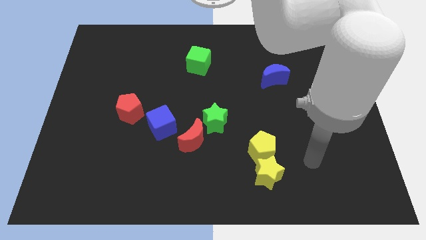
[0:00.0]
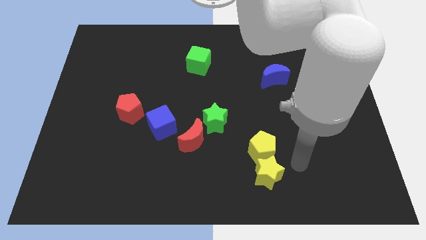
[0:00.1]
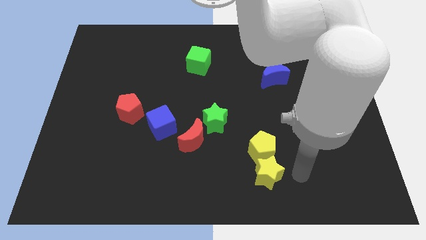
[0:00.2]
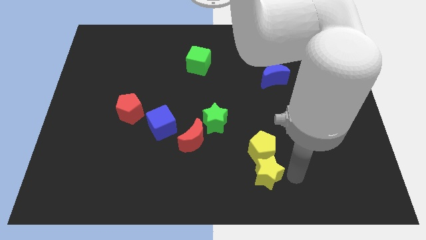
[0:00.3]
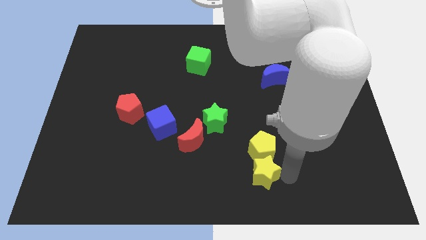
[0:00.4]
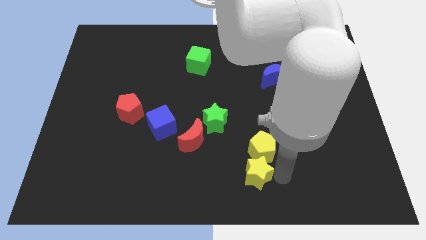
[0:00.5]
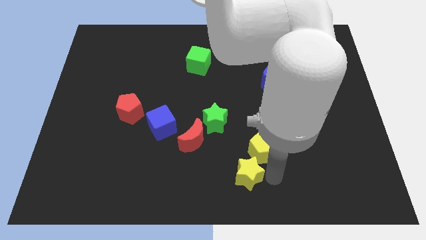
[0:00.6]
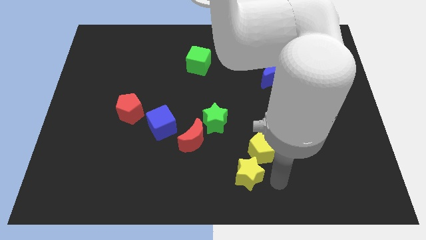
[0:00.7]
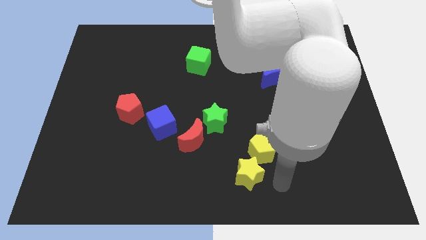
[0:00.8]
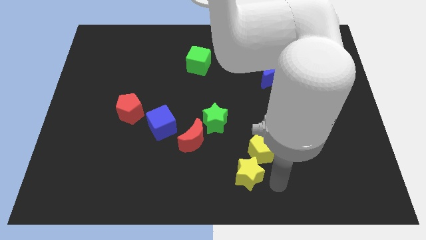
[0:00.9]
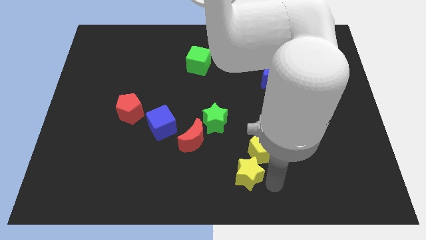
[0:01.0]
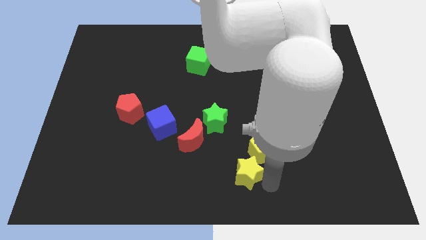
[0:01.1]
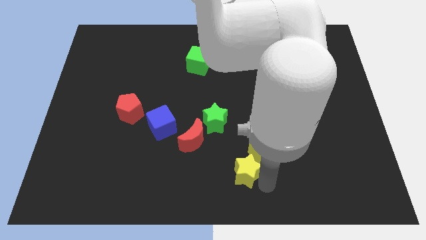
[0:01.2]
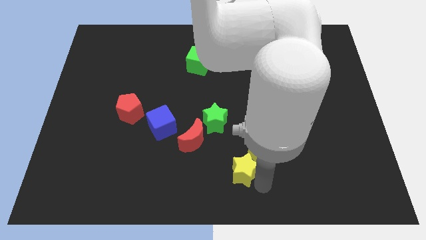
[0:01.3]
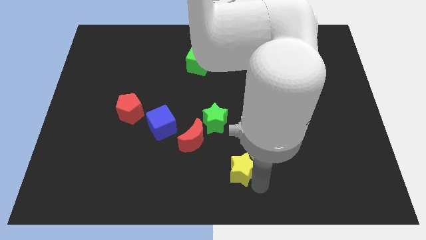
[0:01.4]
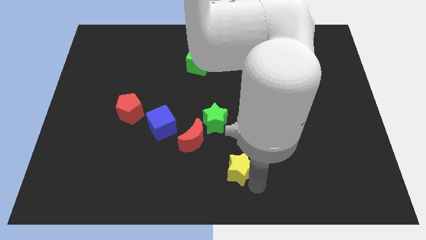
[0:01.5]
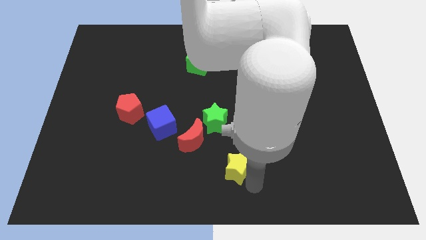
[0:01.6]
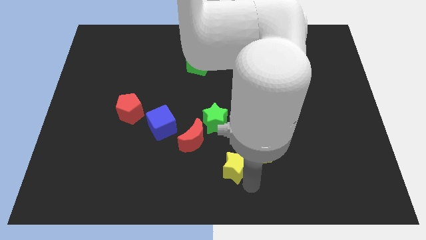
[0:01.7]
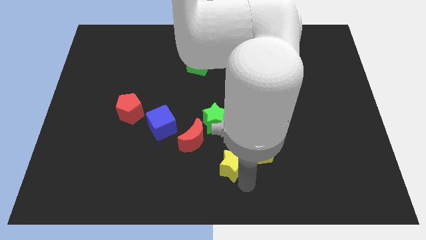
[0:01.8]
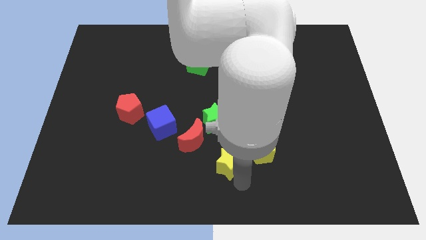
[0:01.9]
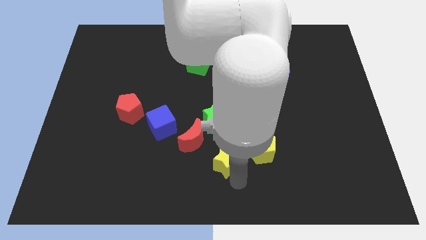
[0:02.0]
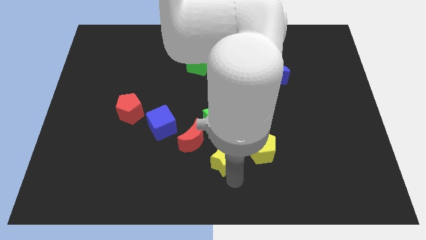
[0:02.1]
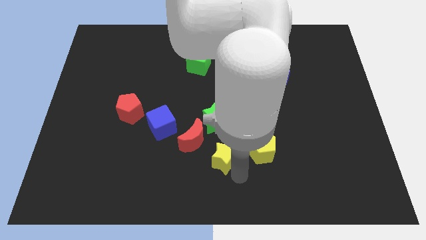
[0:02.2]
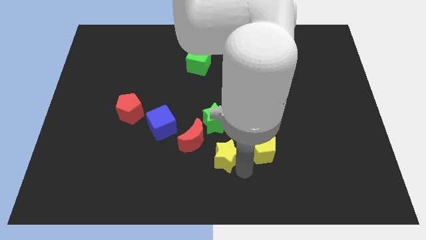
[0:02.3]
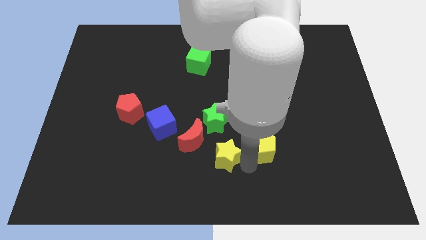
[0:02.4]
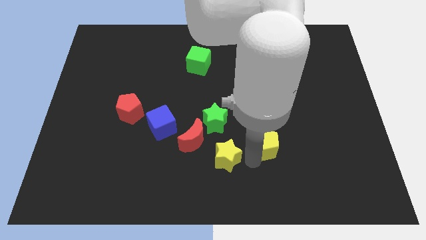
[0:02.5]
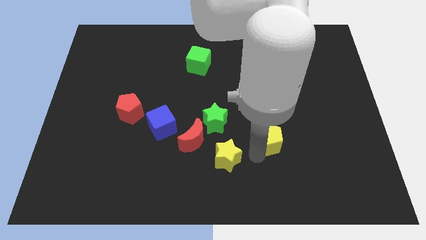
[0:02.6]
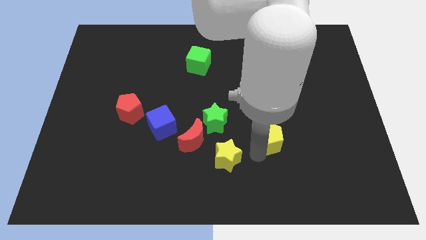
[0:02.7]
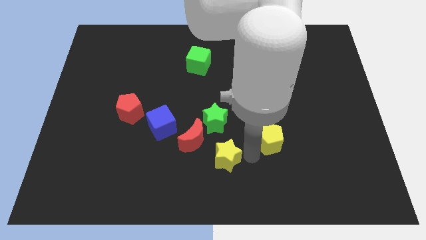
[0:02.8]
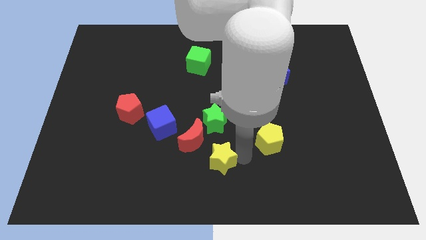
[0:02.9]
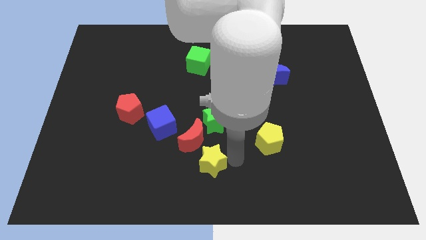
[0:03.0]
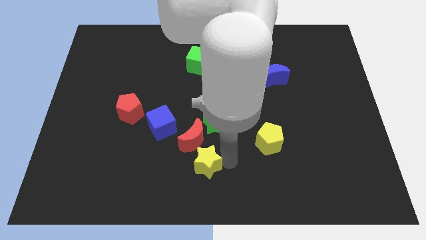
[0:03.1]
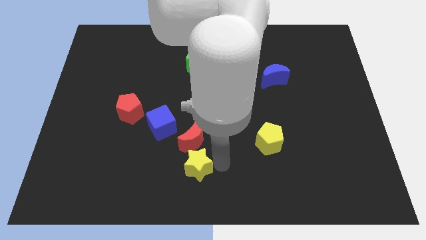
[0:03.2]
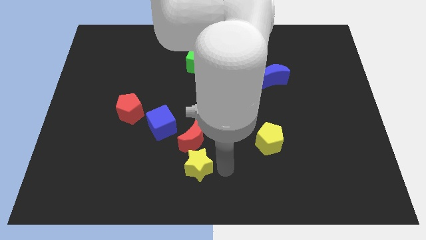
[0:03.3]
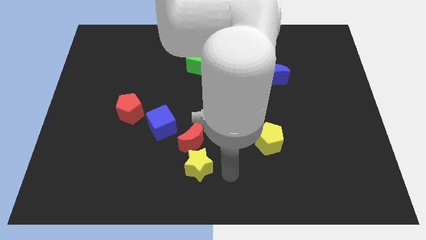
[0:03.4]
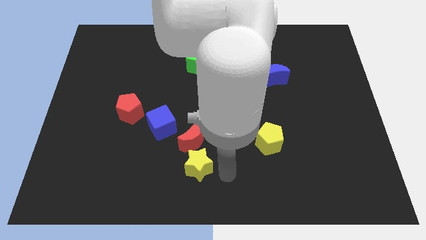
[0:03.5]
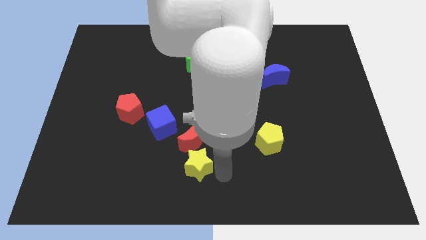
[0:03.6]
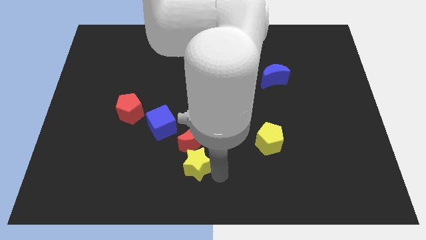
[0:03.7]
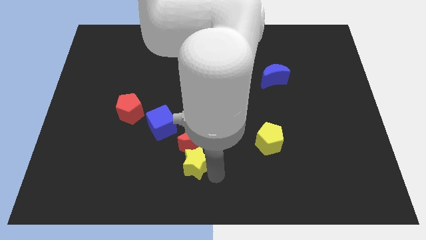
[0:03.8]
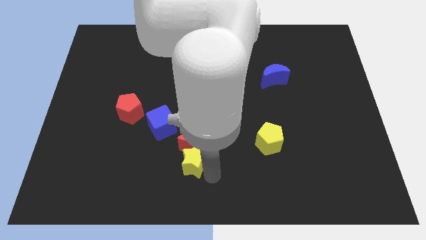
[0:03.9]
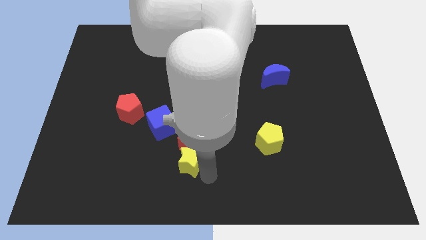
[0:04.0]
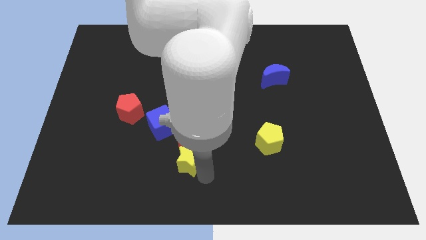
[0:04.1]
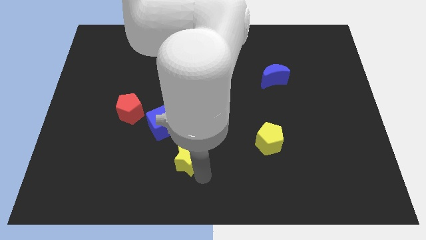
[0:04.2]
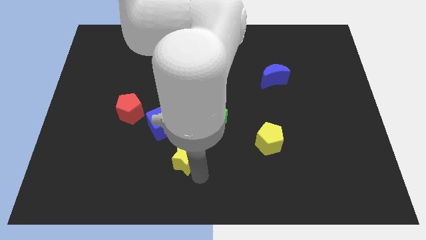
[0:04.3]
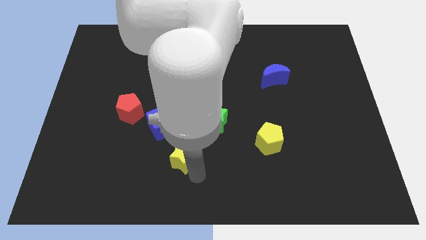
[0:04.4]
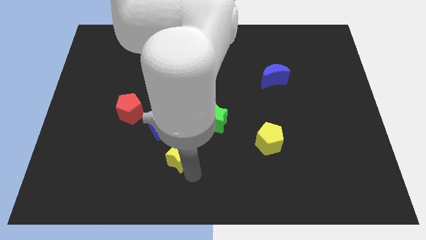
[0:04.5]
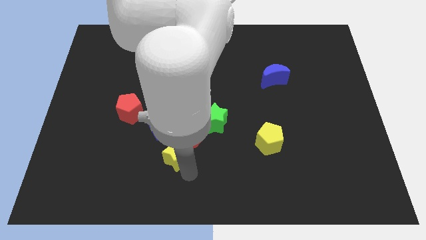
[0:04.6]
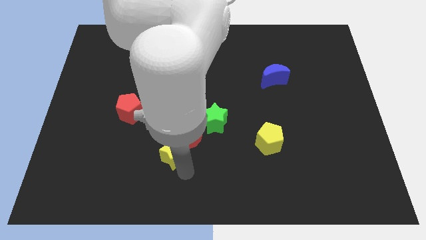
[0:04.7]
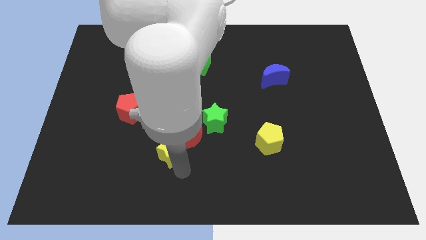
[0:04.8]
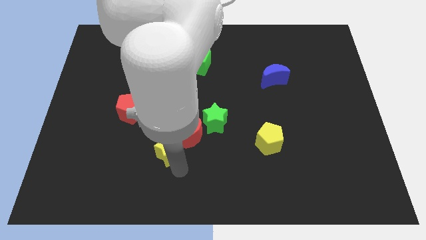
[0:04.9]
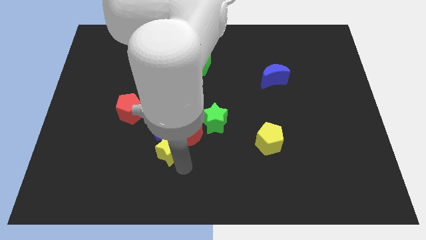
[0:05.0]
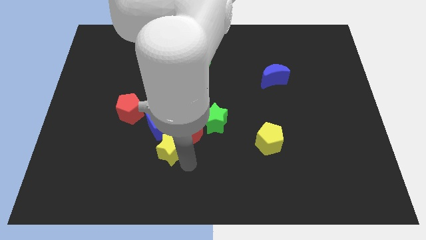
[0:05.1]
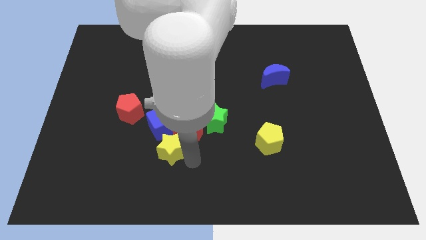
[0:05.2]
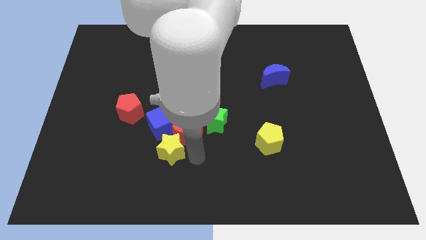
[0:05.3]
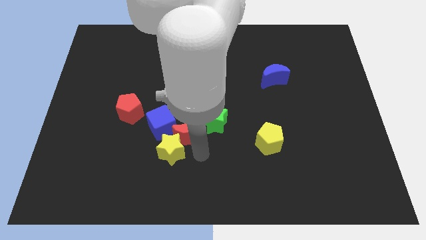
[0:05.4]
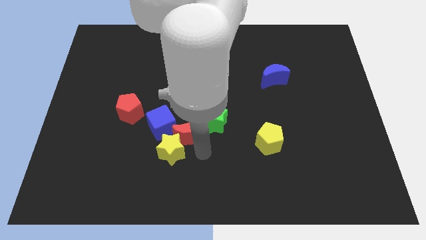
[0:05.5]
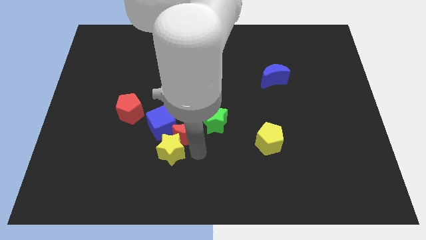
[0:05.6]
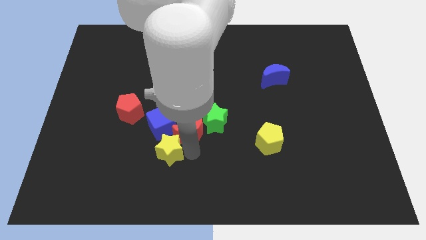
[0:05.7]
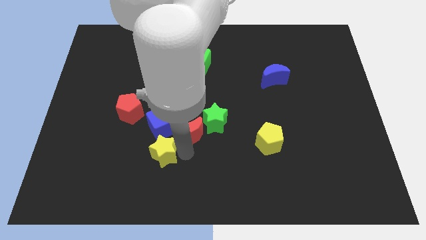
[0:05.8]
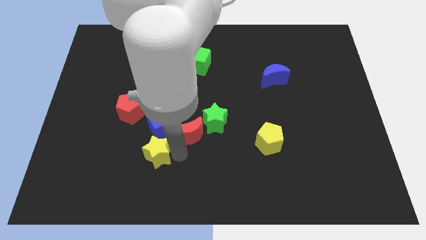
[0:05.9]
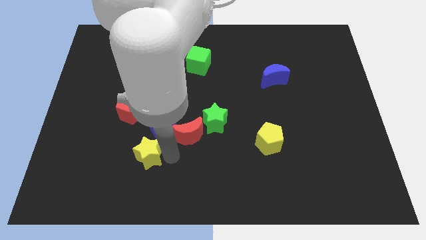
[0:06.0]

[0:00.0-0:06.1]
move the yellow star to the bottom left of the blue cube

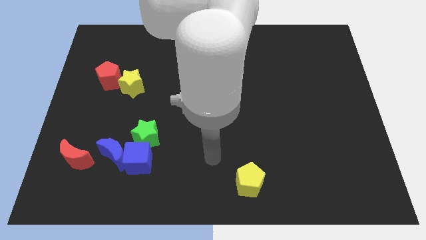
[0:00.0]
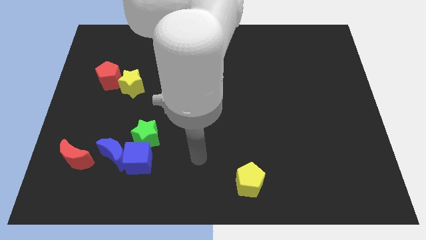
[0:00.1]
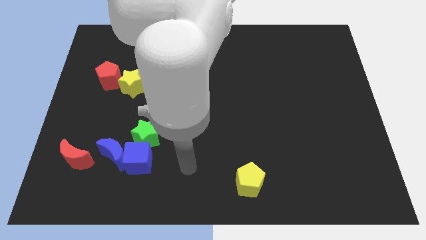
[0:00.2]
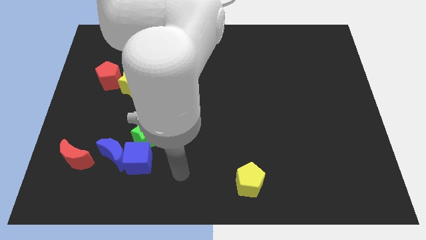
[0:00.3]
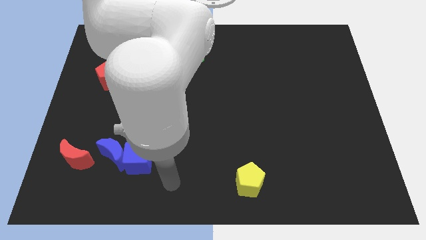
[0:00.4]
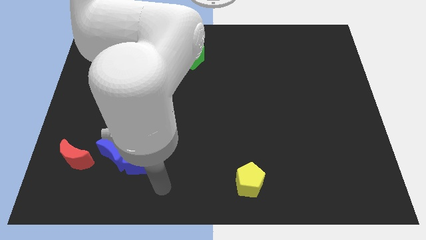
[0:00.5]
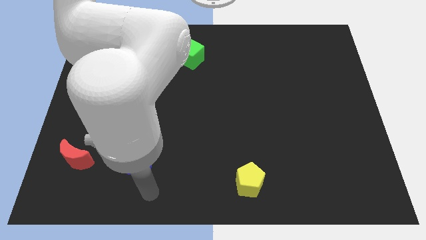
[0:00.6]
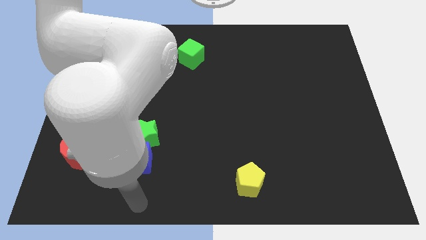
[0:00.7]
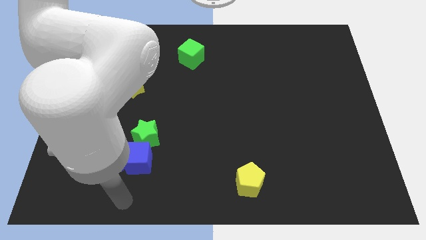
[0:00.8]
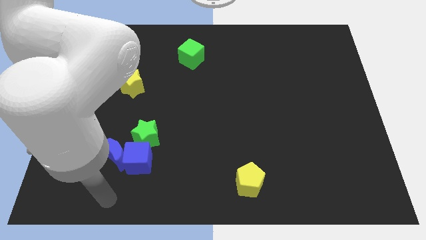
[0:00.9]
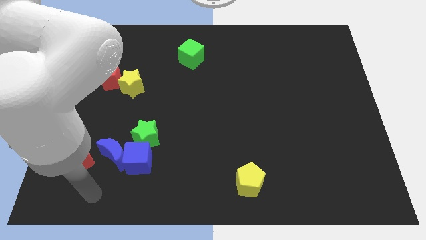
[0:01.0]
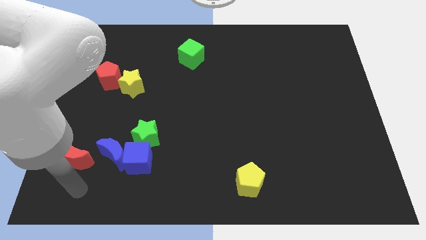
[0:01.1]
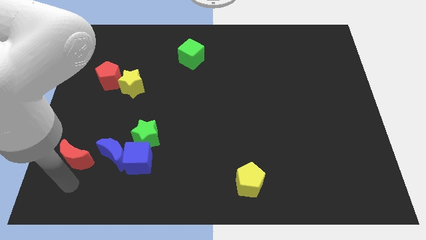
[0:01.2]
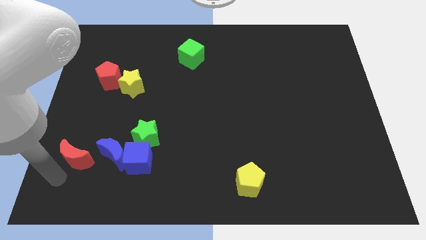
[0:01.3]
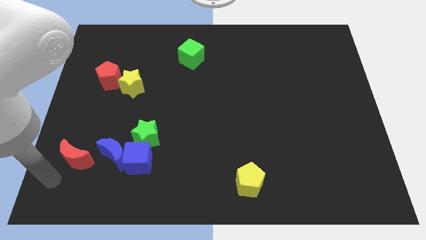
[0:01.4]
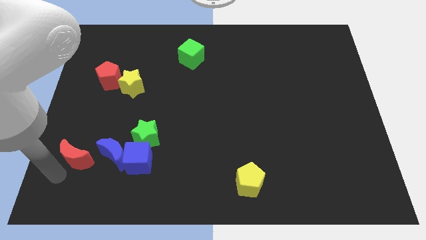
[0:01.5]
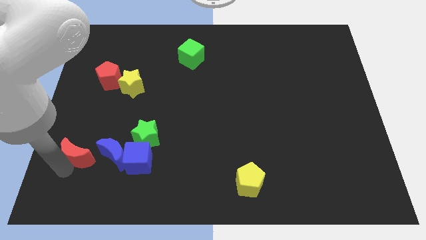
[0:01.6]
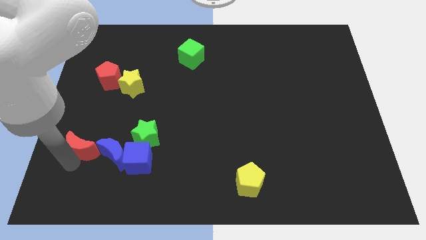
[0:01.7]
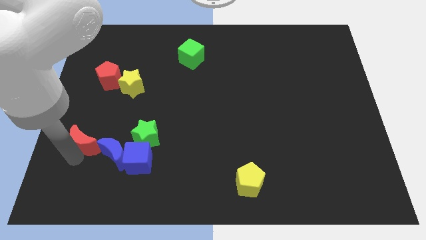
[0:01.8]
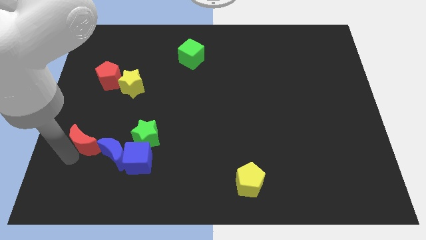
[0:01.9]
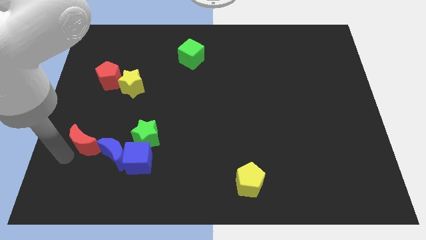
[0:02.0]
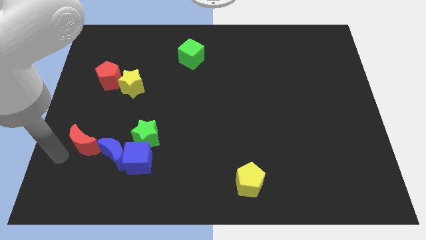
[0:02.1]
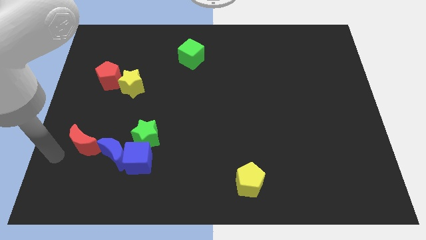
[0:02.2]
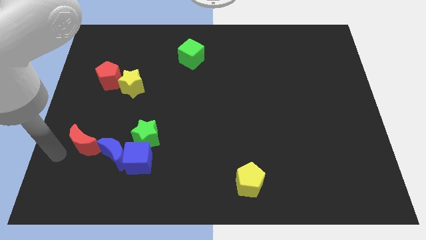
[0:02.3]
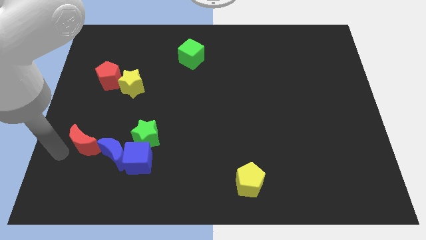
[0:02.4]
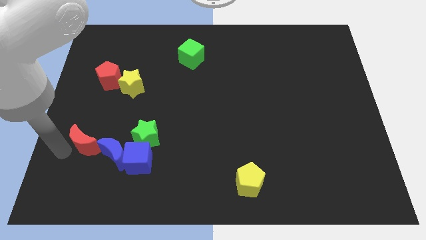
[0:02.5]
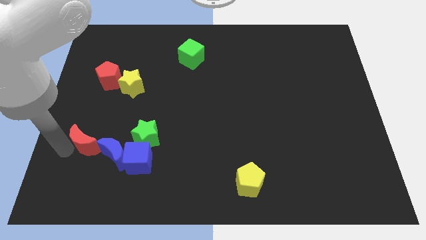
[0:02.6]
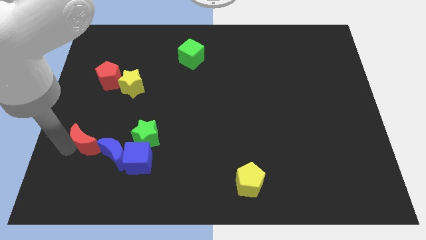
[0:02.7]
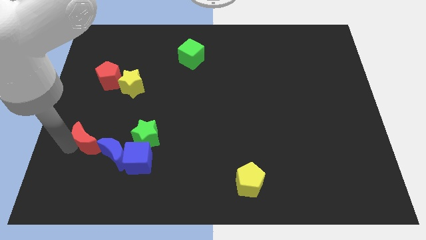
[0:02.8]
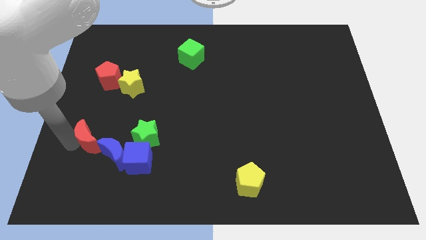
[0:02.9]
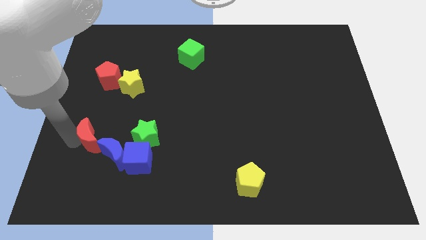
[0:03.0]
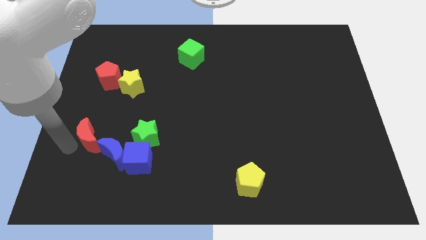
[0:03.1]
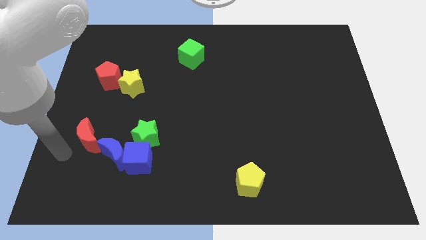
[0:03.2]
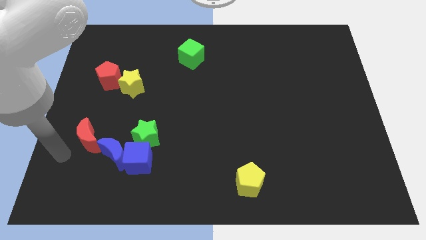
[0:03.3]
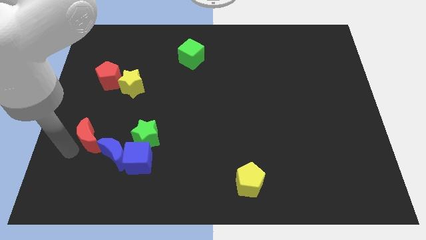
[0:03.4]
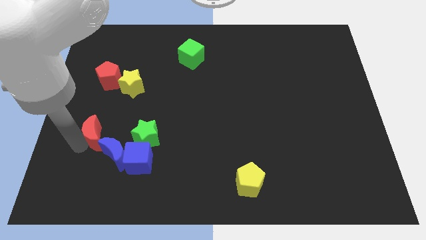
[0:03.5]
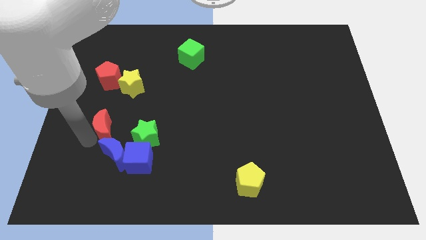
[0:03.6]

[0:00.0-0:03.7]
move the red moon below the yellow star
